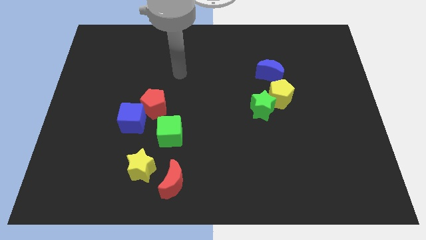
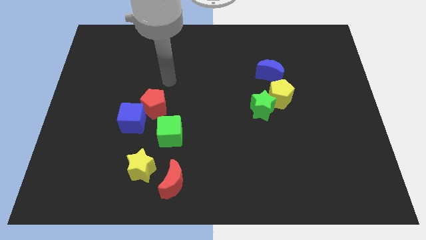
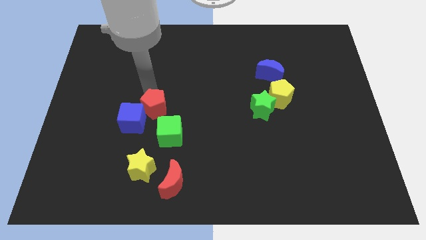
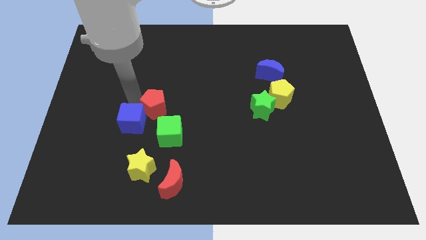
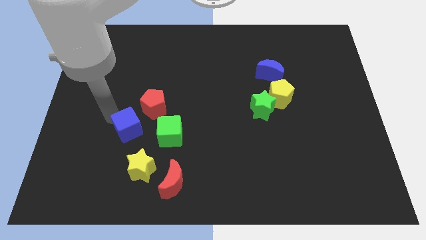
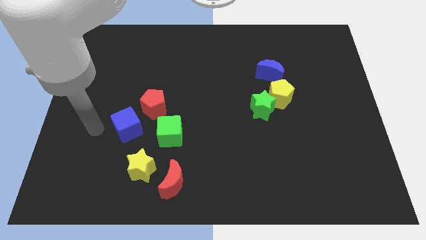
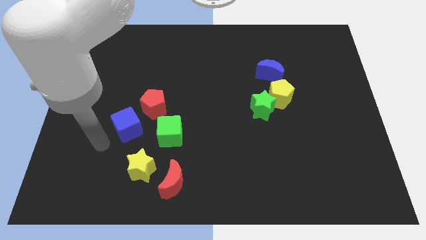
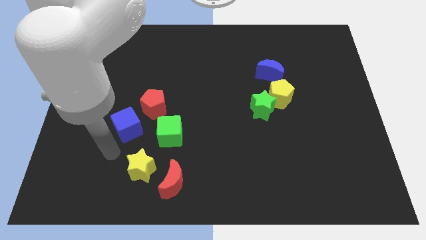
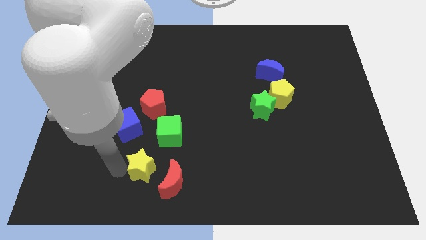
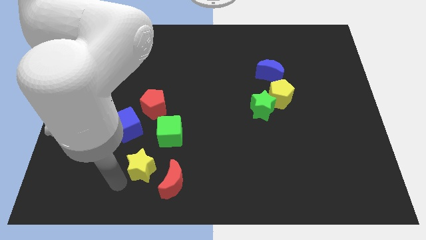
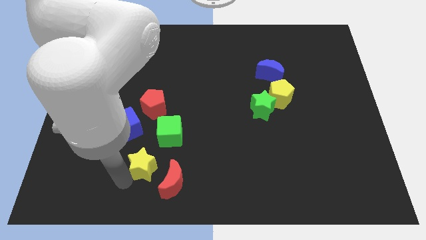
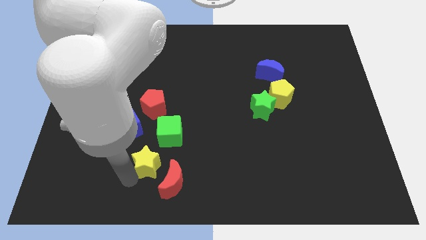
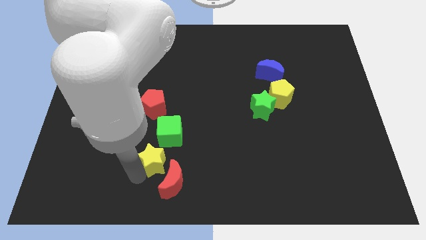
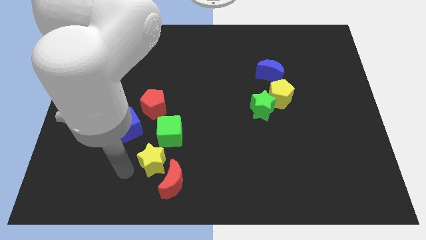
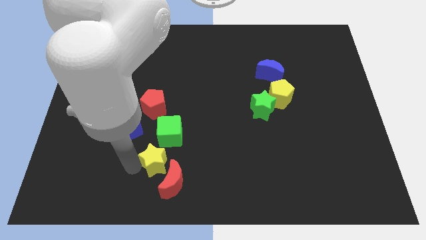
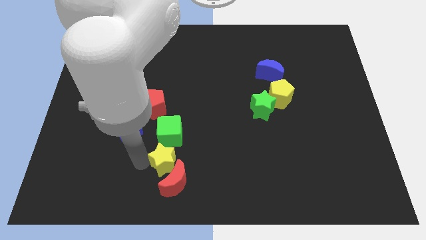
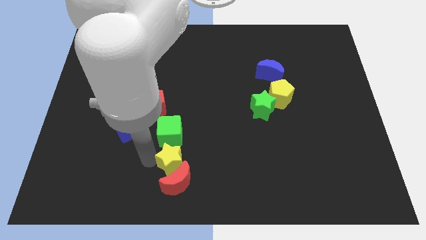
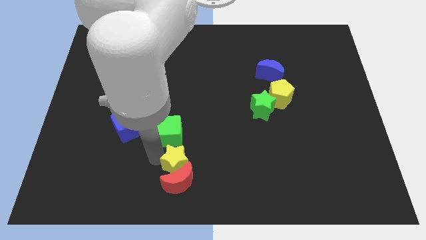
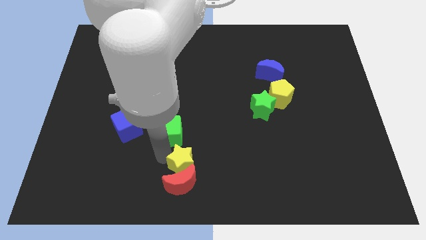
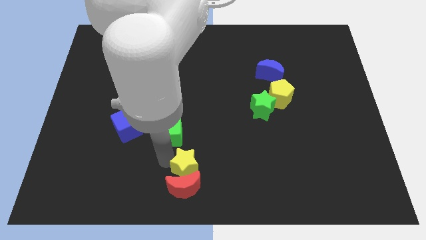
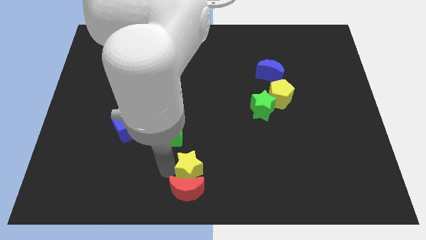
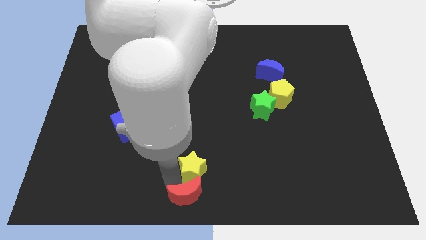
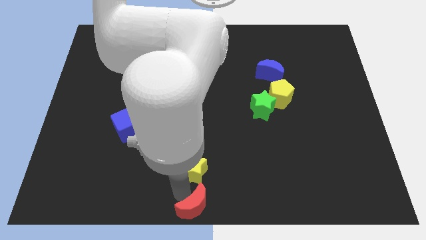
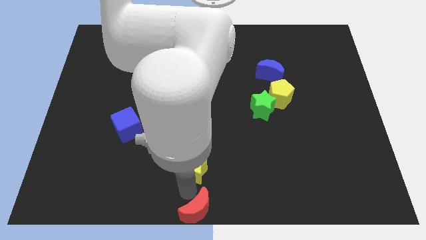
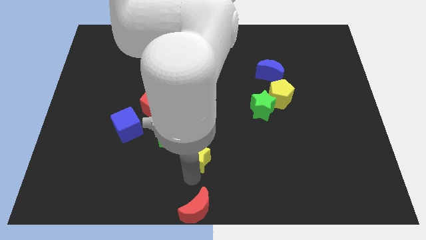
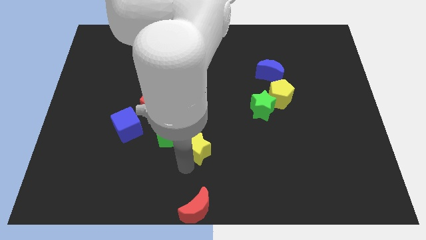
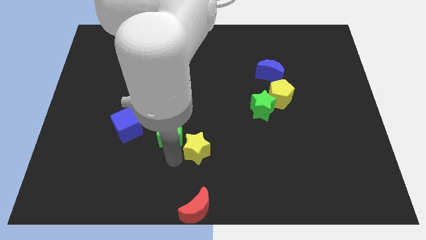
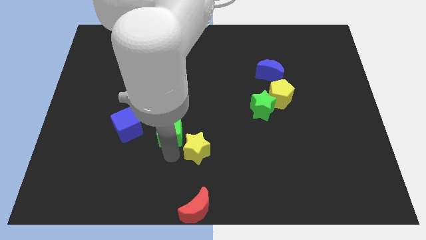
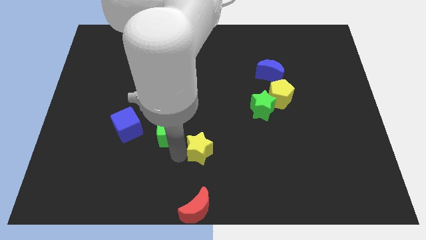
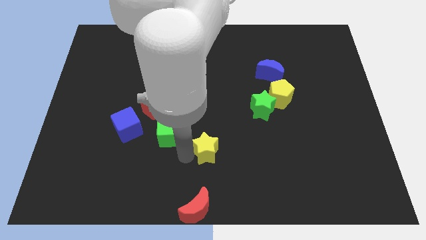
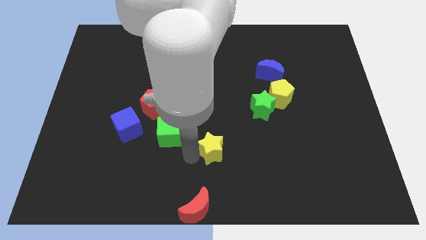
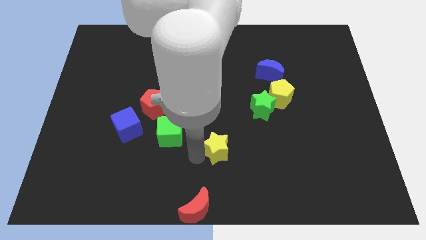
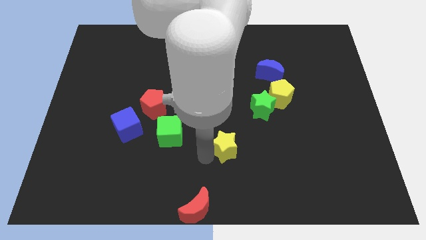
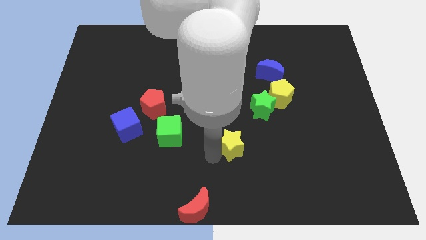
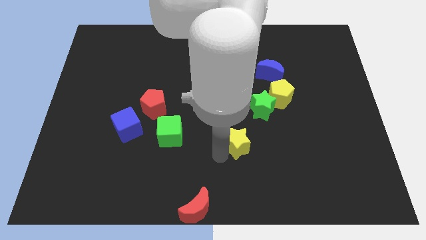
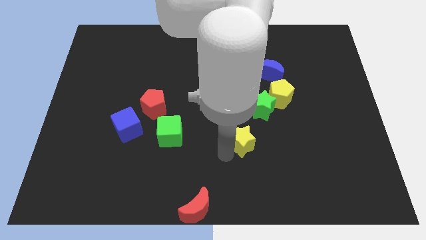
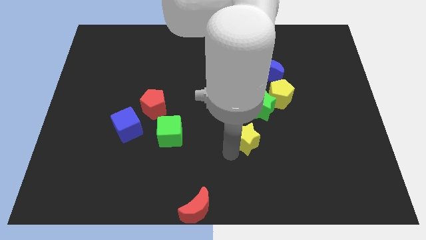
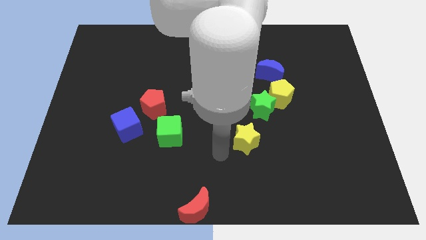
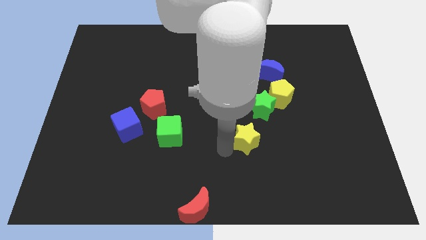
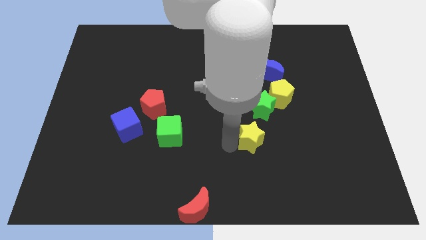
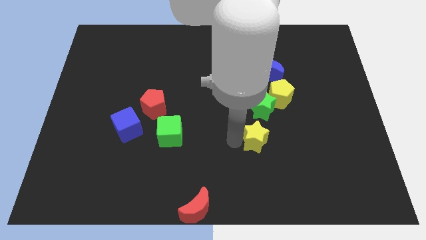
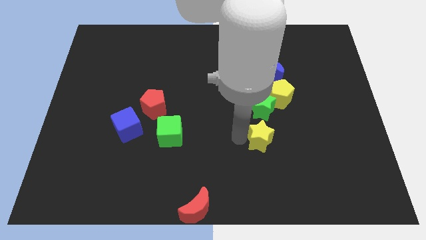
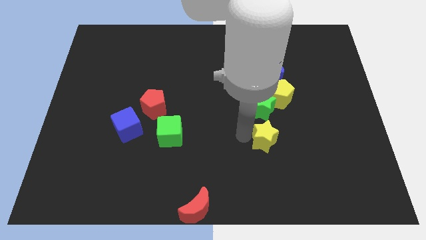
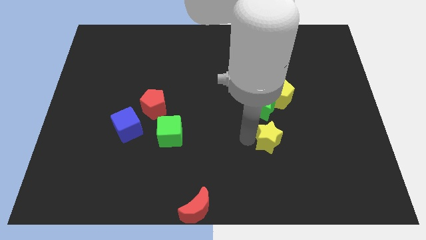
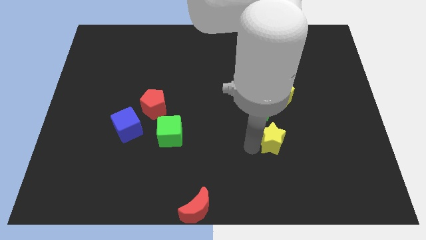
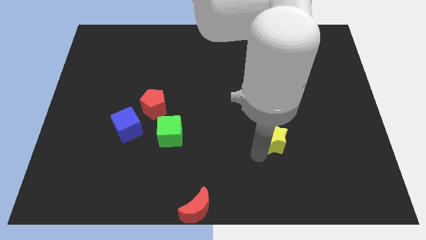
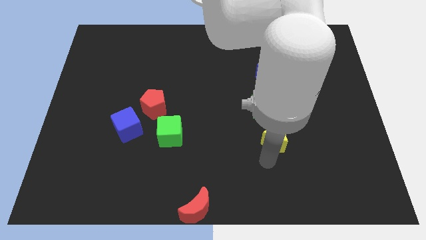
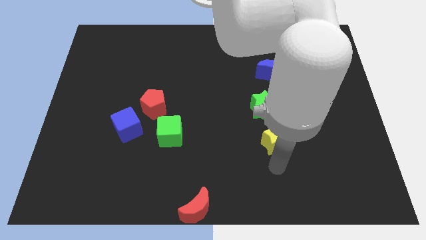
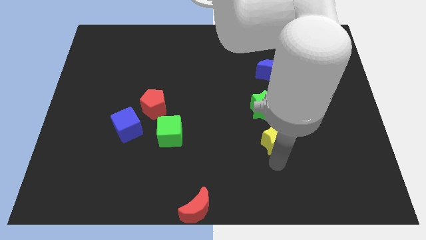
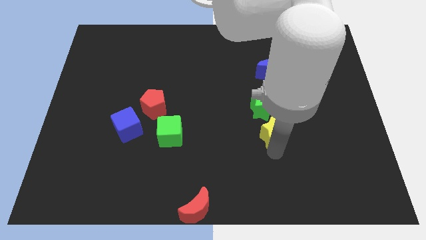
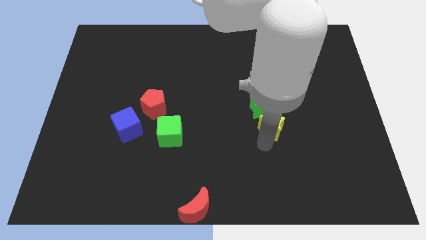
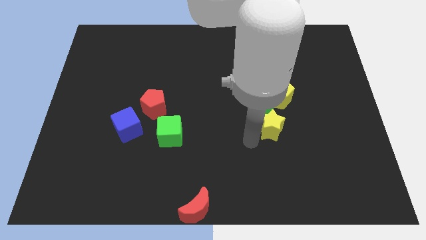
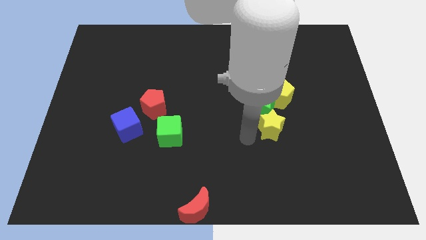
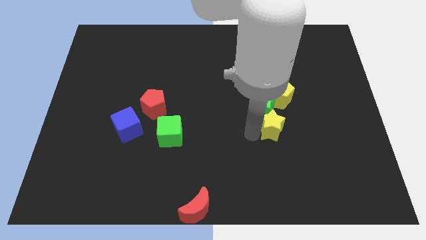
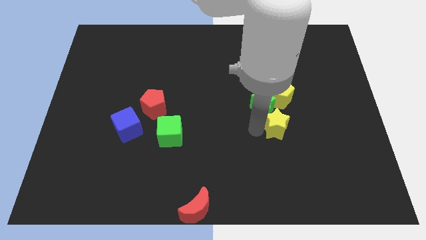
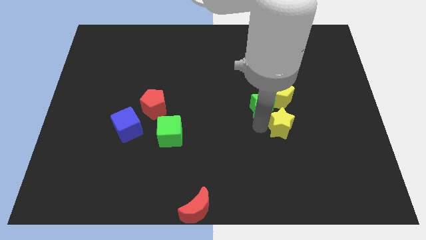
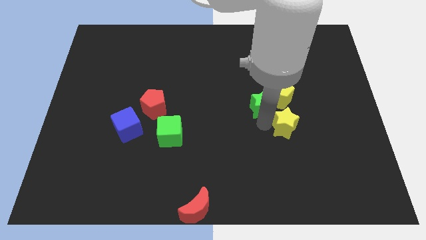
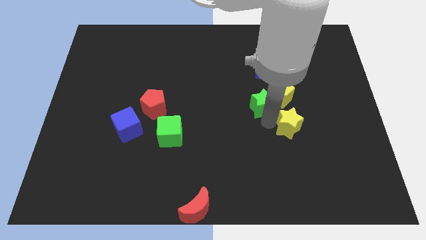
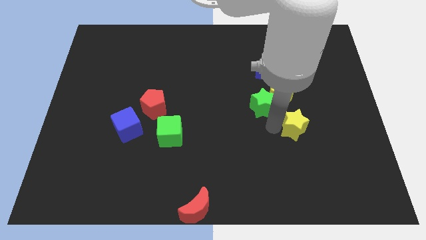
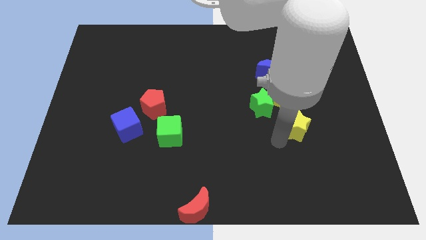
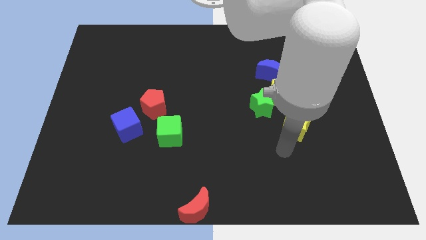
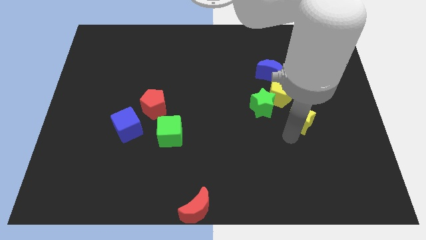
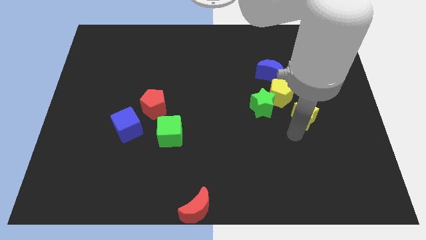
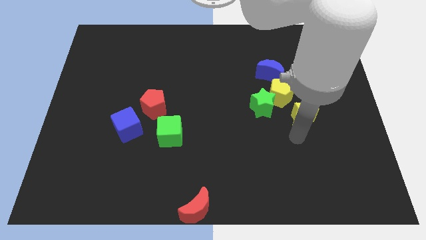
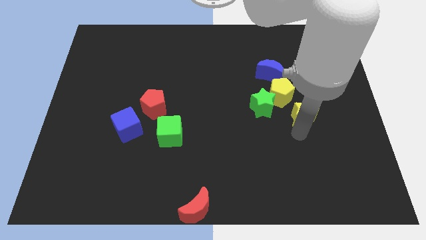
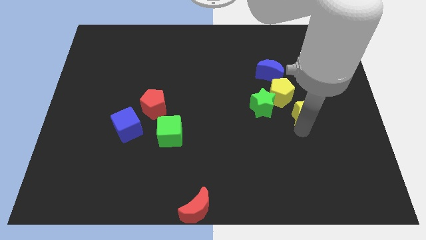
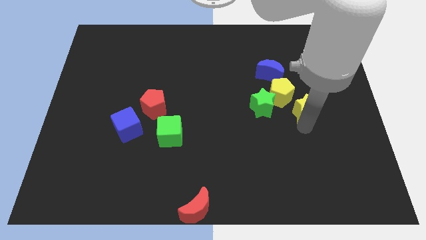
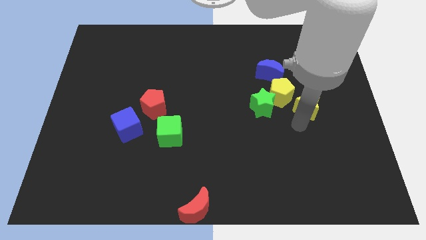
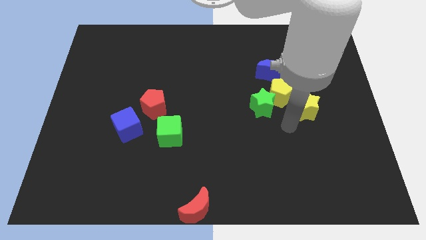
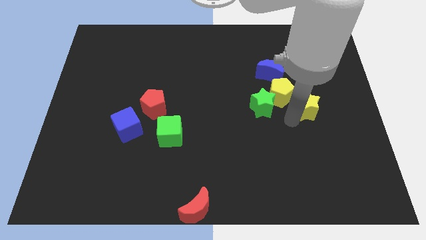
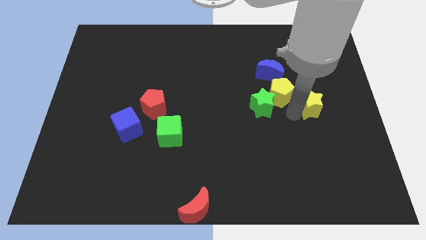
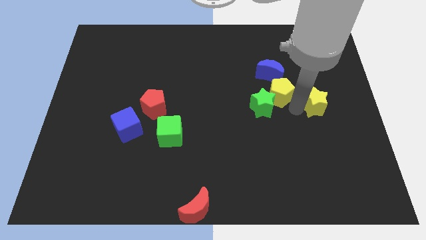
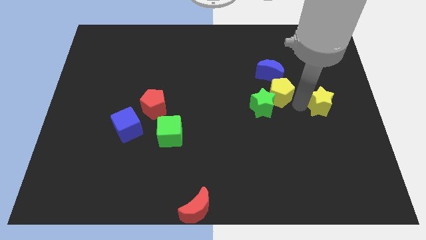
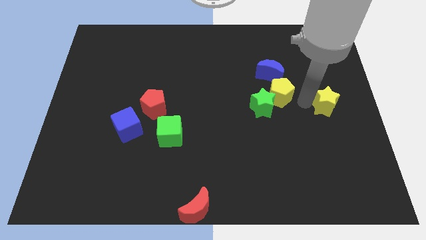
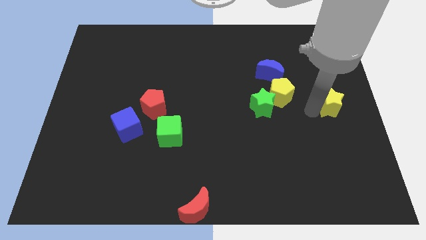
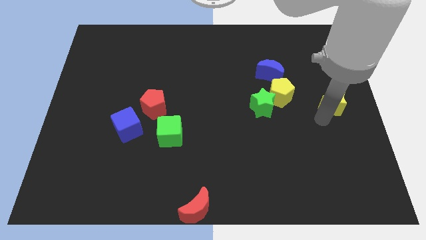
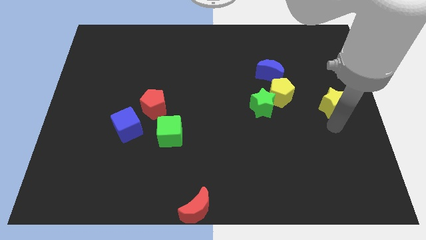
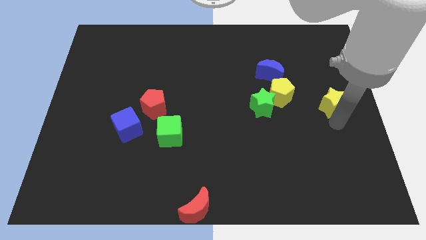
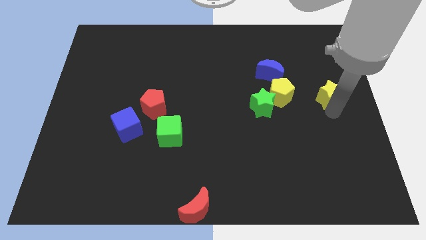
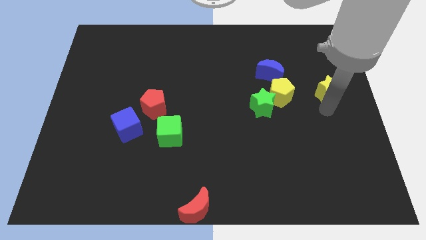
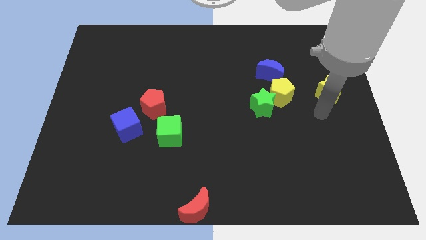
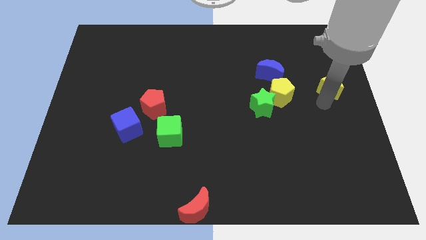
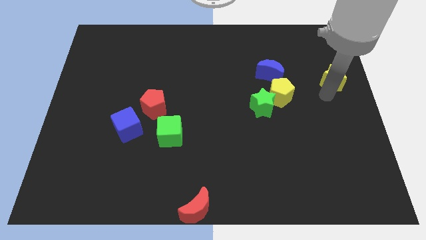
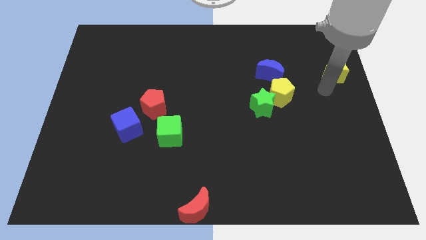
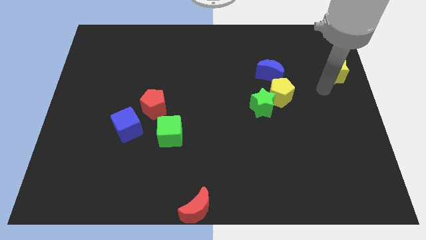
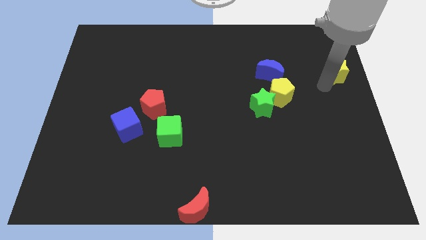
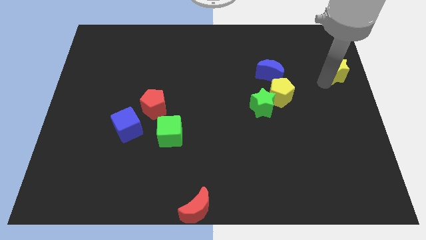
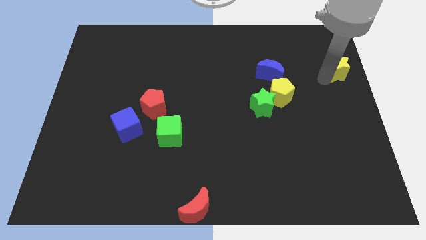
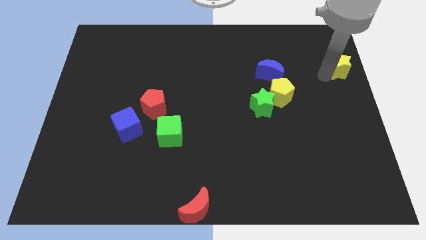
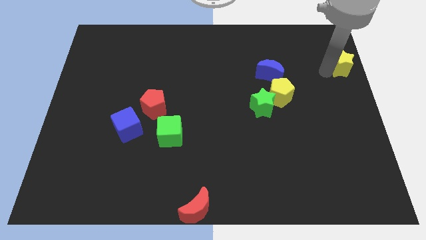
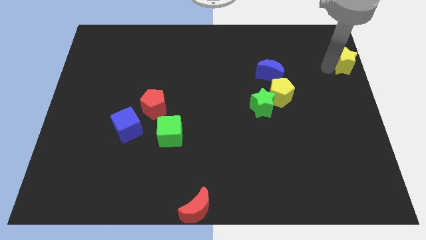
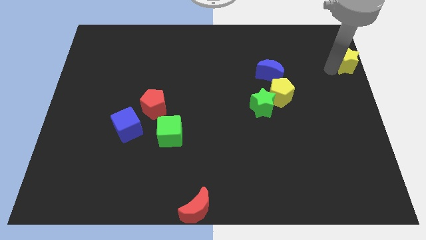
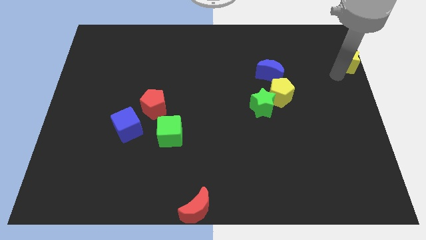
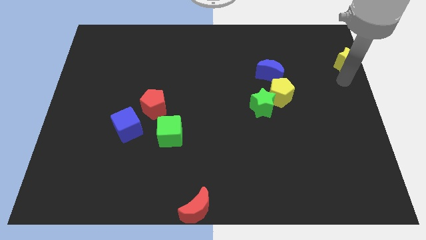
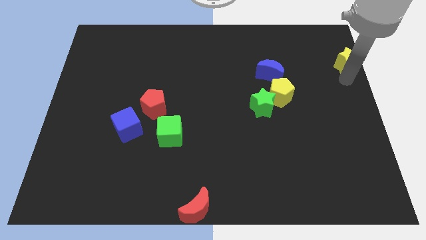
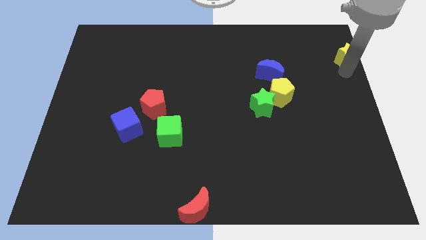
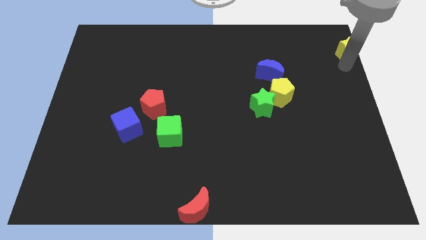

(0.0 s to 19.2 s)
push the yellow star to the top right corner
